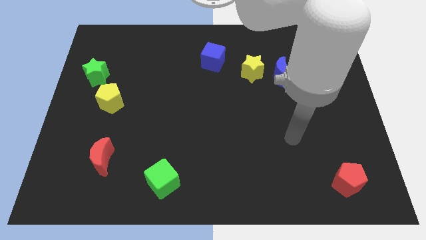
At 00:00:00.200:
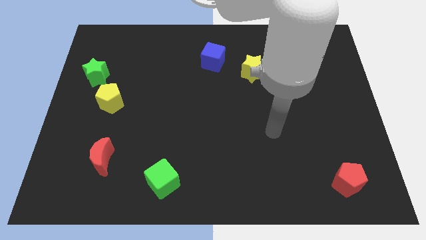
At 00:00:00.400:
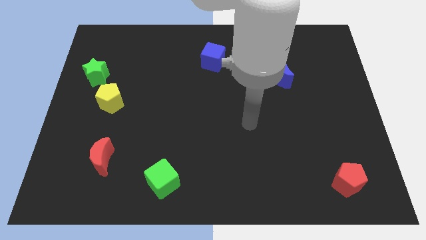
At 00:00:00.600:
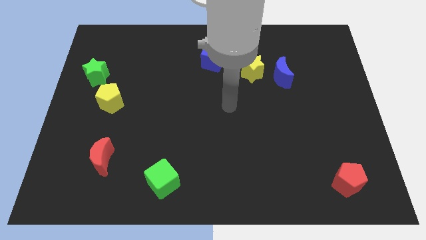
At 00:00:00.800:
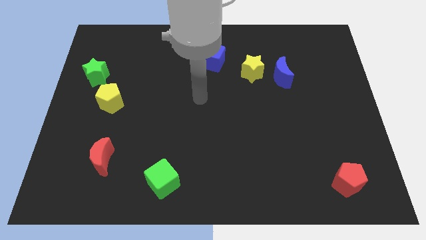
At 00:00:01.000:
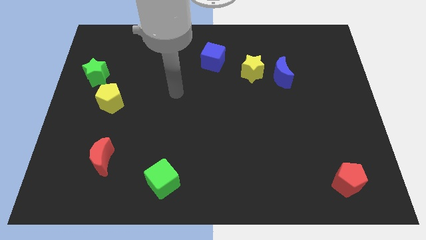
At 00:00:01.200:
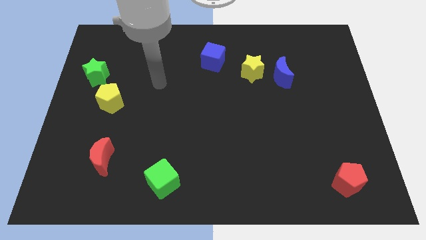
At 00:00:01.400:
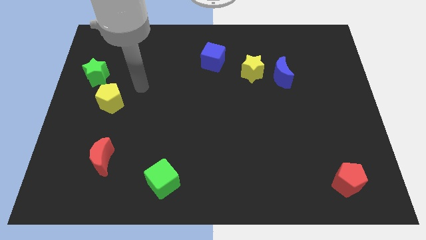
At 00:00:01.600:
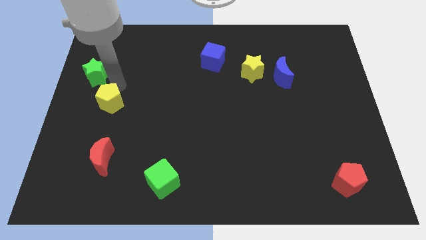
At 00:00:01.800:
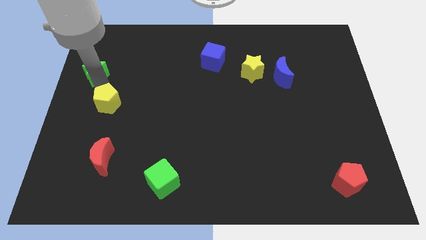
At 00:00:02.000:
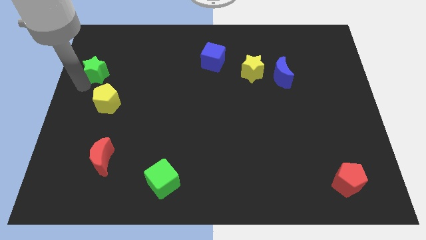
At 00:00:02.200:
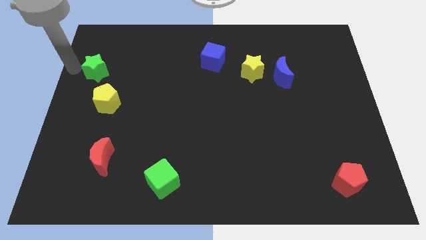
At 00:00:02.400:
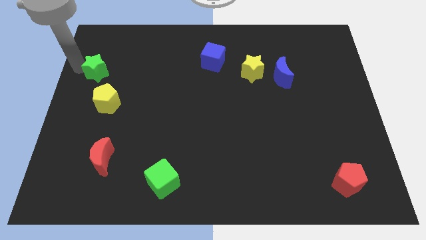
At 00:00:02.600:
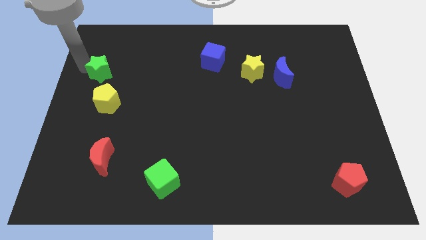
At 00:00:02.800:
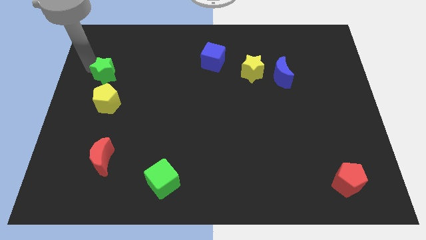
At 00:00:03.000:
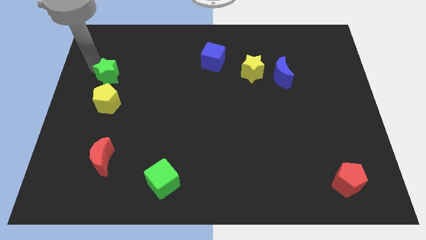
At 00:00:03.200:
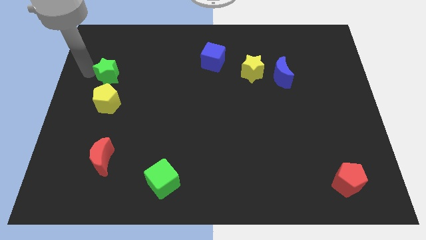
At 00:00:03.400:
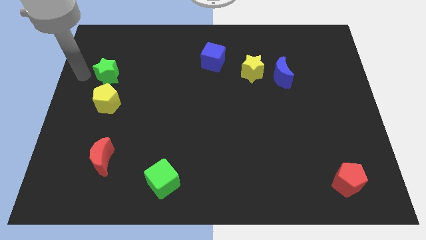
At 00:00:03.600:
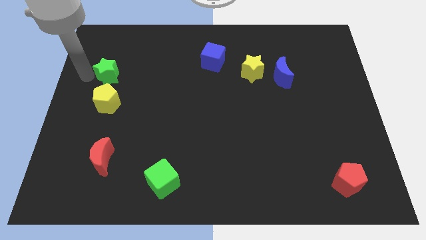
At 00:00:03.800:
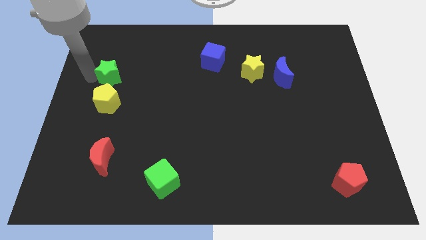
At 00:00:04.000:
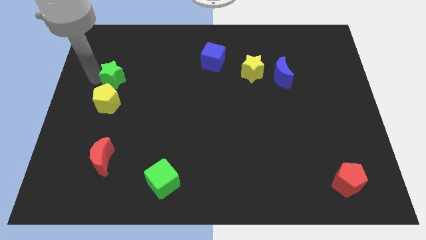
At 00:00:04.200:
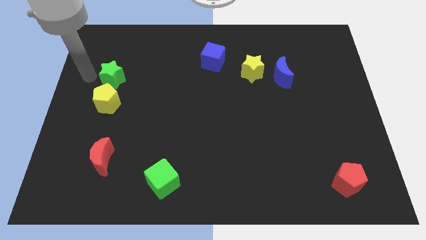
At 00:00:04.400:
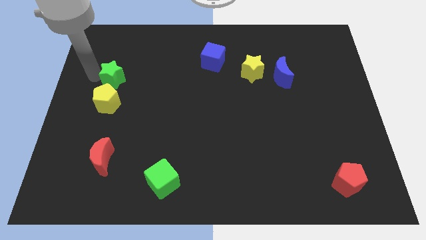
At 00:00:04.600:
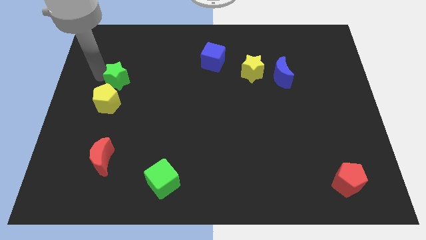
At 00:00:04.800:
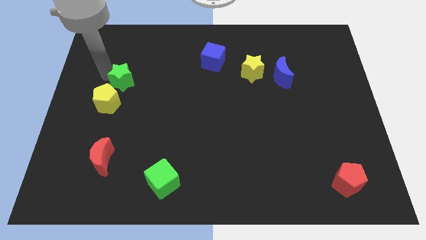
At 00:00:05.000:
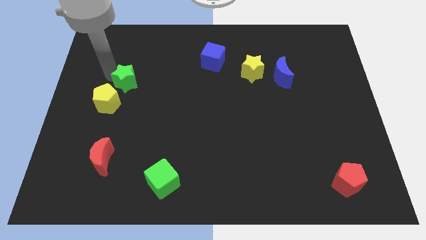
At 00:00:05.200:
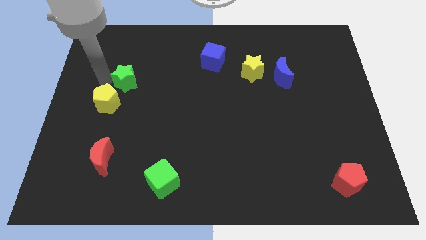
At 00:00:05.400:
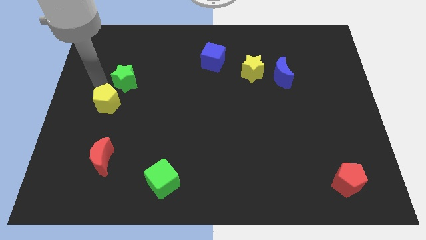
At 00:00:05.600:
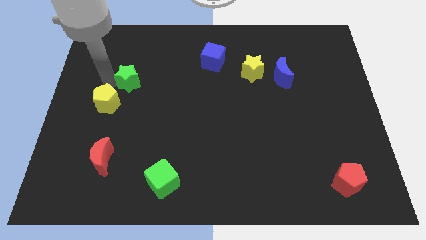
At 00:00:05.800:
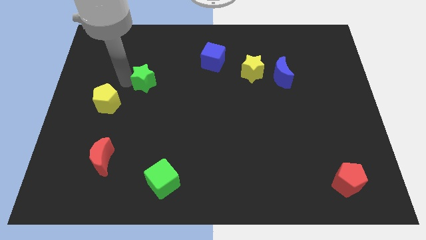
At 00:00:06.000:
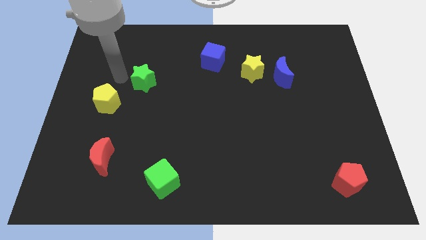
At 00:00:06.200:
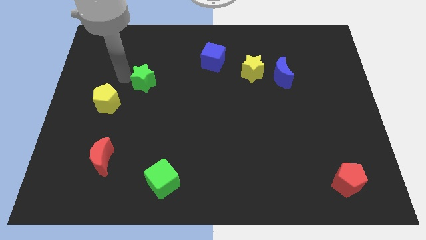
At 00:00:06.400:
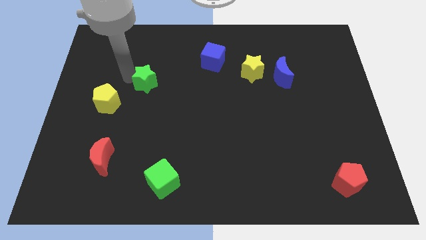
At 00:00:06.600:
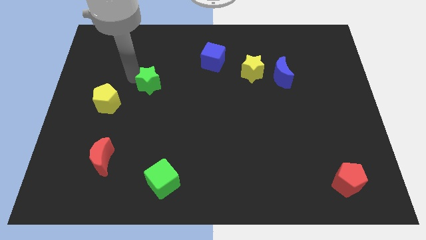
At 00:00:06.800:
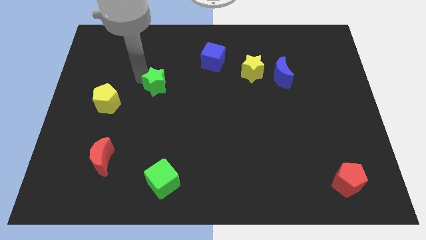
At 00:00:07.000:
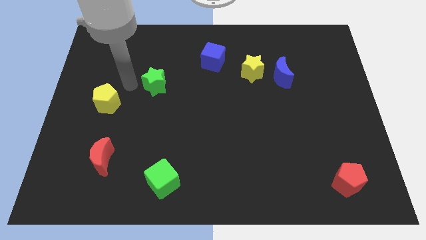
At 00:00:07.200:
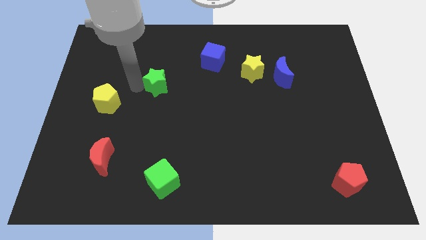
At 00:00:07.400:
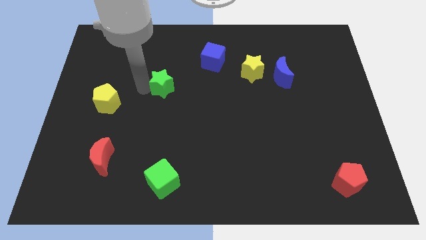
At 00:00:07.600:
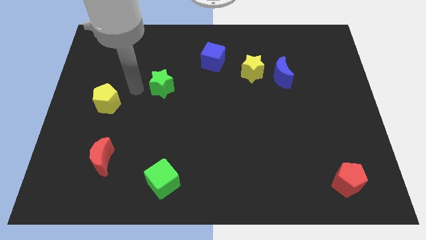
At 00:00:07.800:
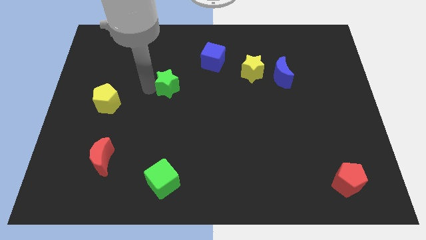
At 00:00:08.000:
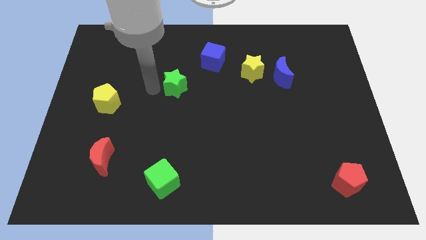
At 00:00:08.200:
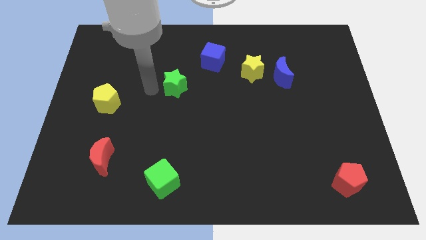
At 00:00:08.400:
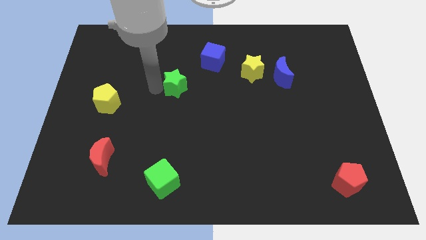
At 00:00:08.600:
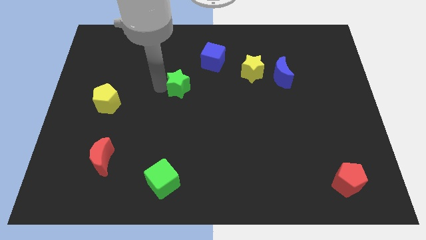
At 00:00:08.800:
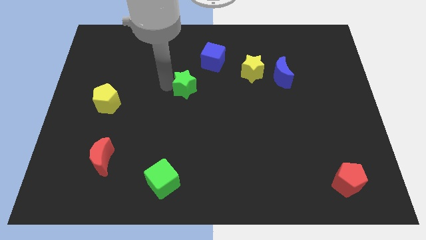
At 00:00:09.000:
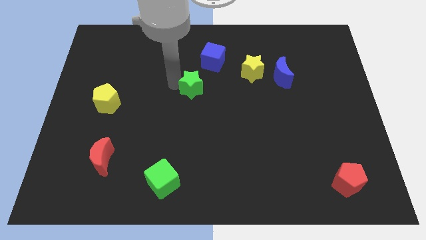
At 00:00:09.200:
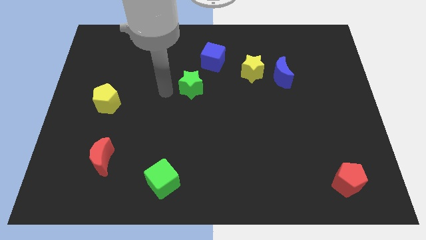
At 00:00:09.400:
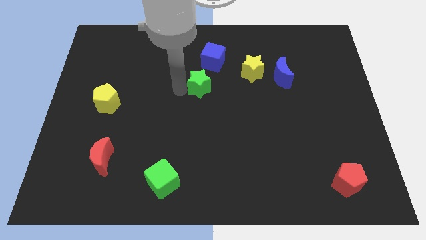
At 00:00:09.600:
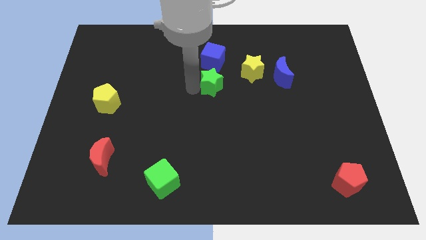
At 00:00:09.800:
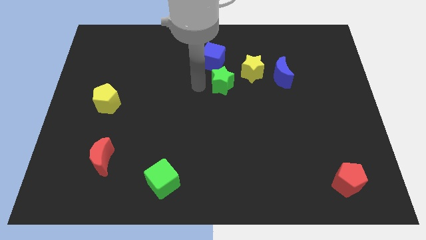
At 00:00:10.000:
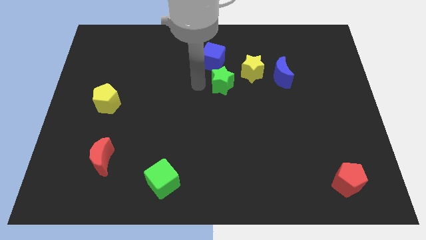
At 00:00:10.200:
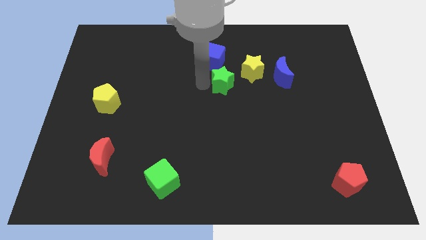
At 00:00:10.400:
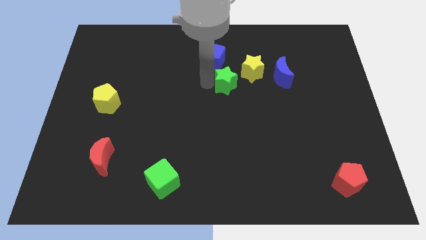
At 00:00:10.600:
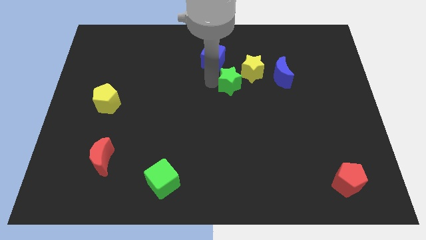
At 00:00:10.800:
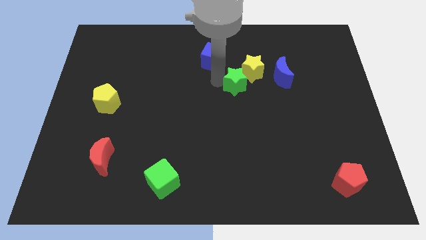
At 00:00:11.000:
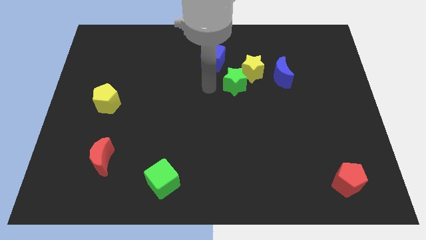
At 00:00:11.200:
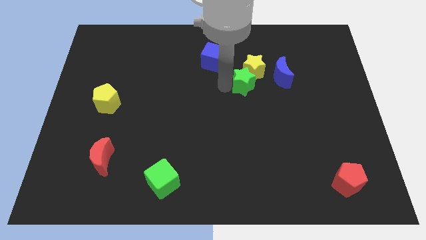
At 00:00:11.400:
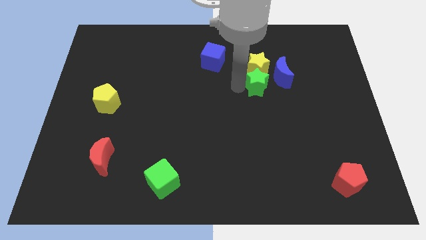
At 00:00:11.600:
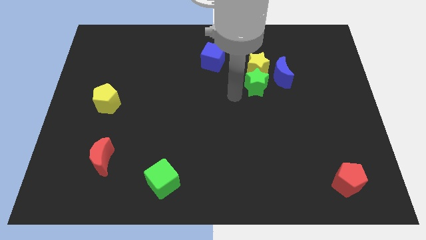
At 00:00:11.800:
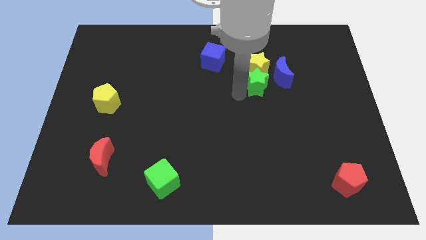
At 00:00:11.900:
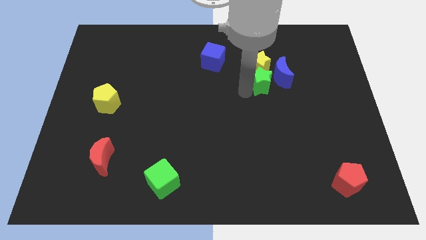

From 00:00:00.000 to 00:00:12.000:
put the green star to the blue moon

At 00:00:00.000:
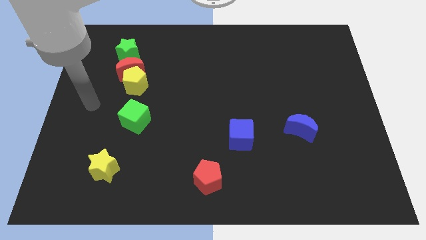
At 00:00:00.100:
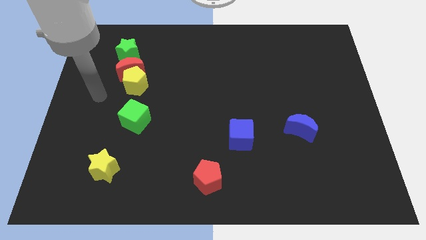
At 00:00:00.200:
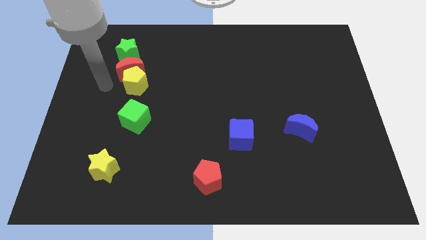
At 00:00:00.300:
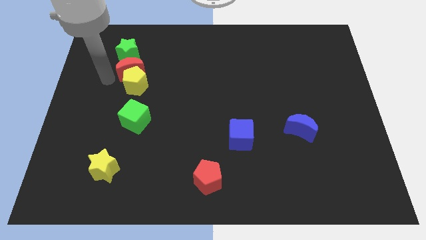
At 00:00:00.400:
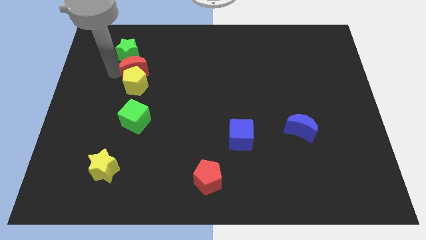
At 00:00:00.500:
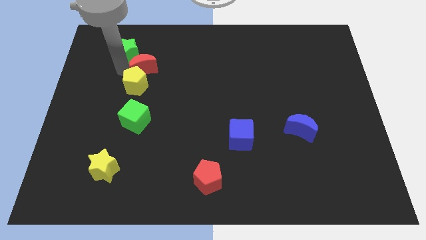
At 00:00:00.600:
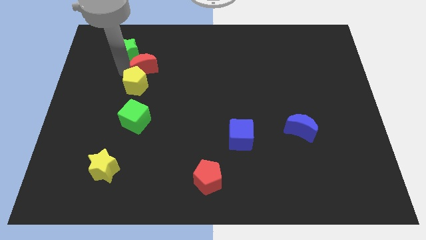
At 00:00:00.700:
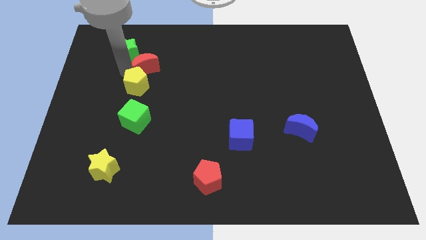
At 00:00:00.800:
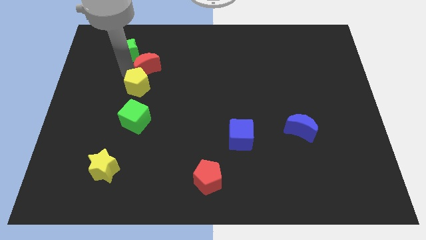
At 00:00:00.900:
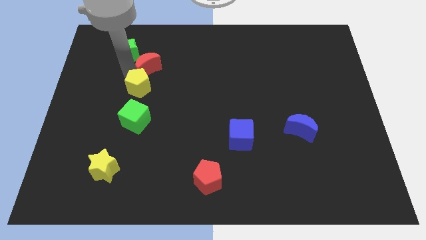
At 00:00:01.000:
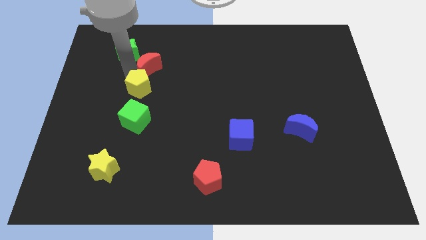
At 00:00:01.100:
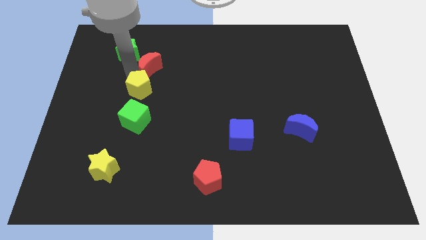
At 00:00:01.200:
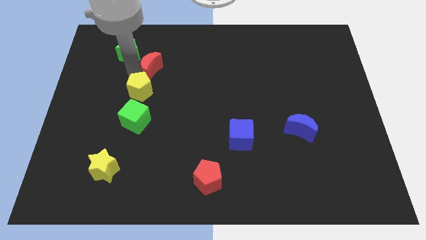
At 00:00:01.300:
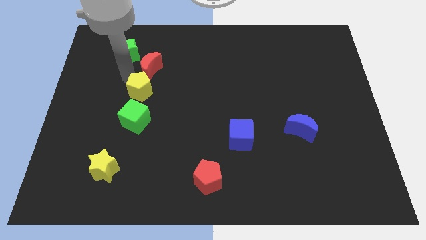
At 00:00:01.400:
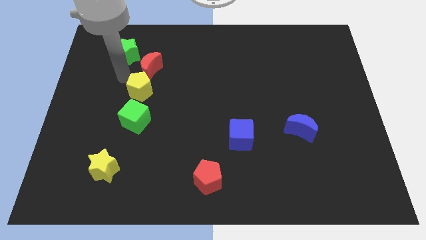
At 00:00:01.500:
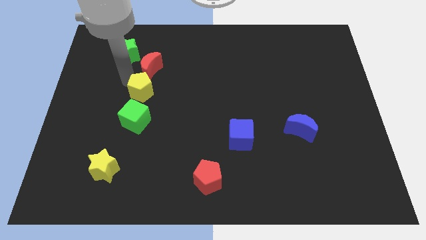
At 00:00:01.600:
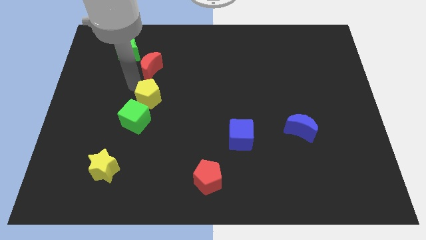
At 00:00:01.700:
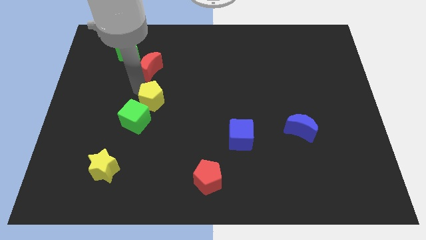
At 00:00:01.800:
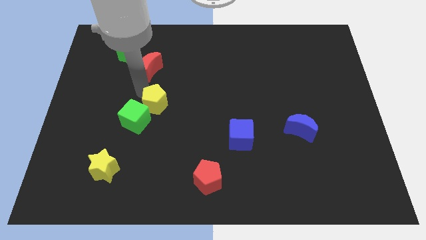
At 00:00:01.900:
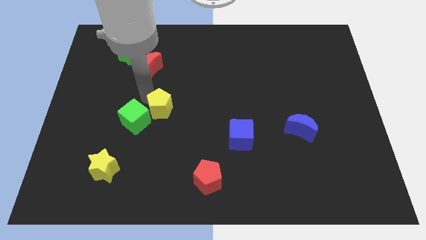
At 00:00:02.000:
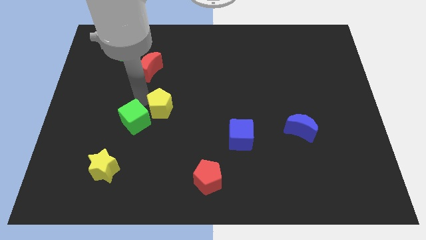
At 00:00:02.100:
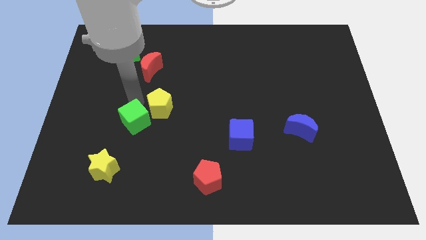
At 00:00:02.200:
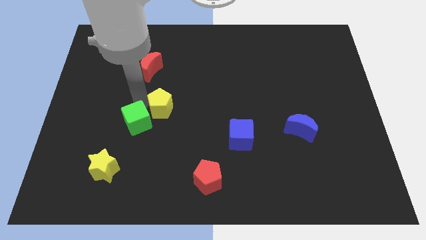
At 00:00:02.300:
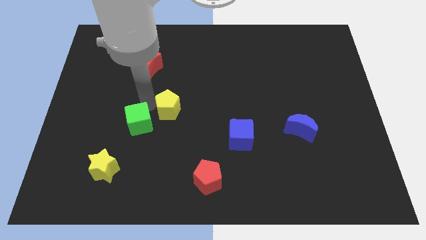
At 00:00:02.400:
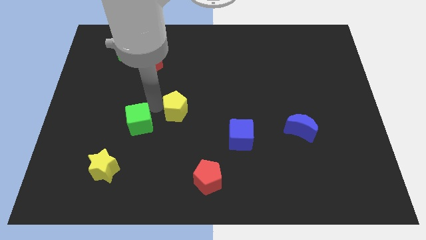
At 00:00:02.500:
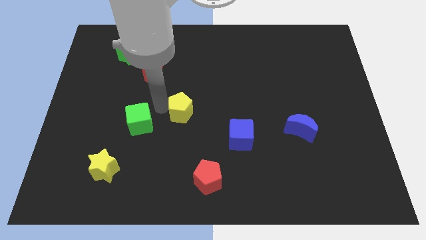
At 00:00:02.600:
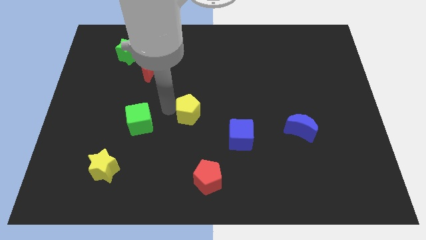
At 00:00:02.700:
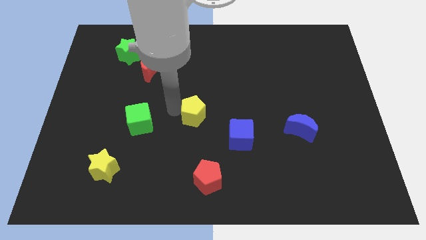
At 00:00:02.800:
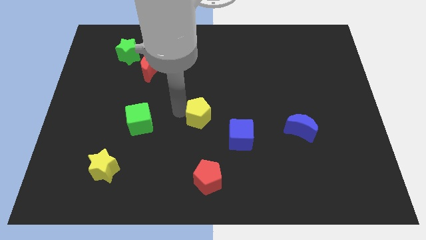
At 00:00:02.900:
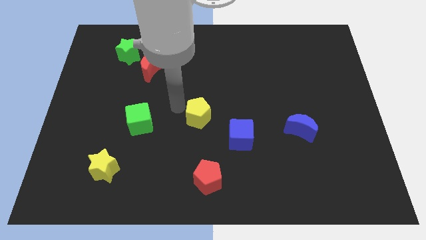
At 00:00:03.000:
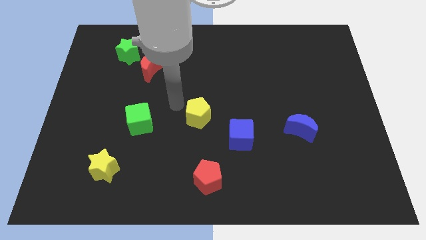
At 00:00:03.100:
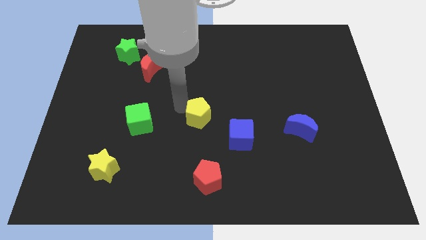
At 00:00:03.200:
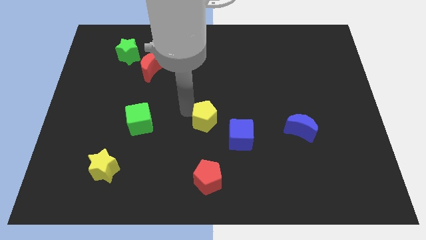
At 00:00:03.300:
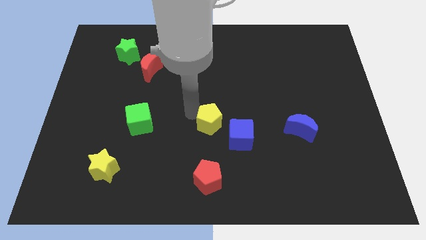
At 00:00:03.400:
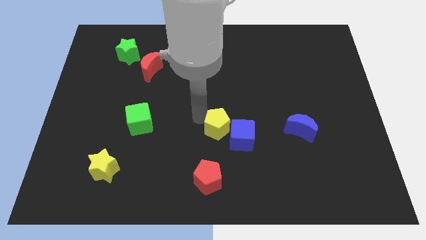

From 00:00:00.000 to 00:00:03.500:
slide the yellow pentagon towards the blue cube
